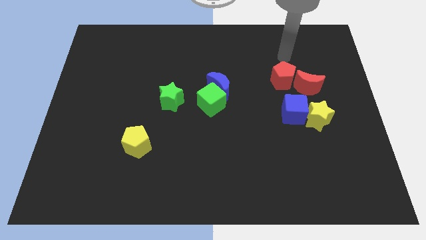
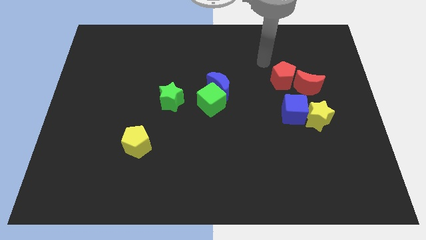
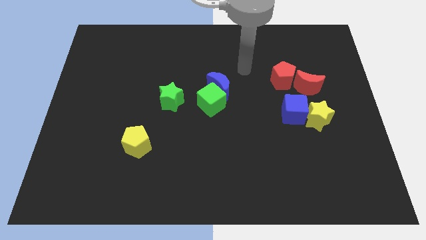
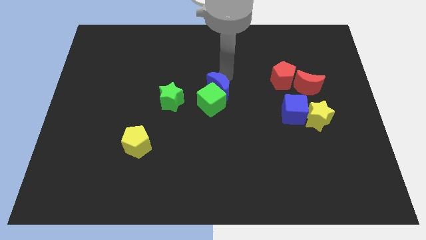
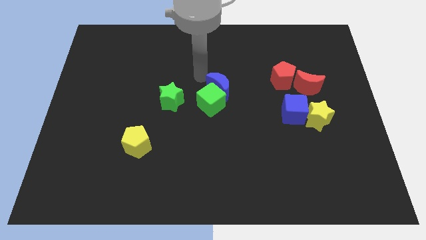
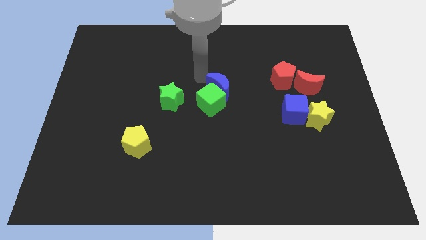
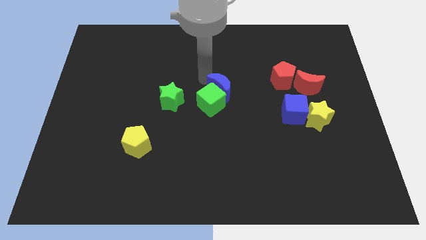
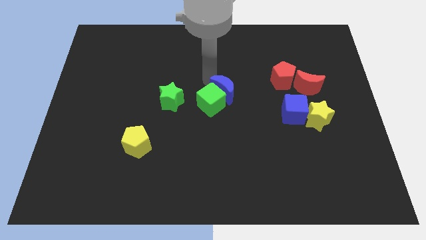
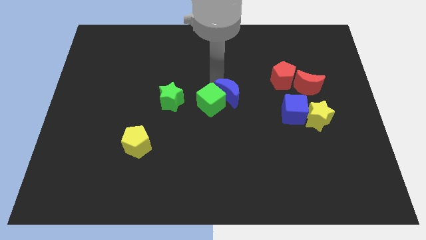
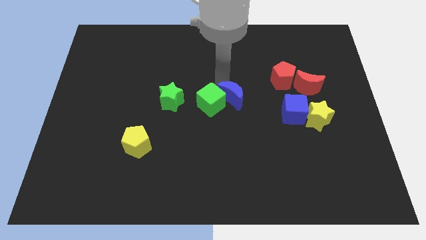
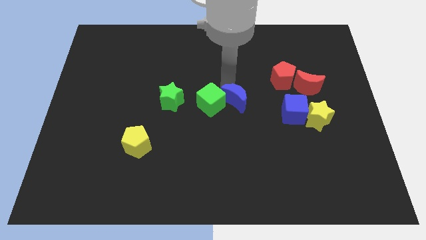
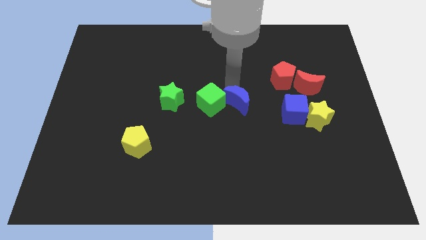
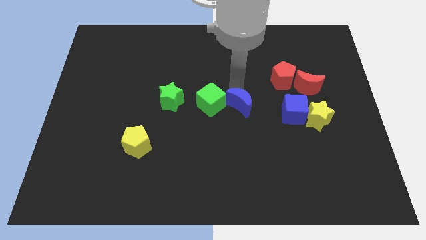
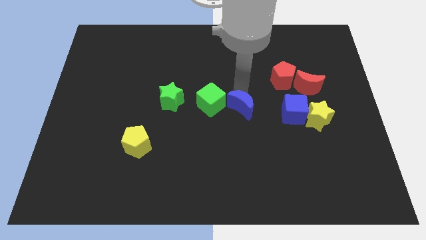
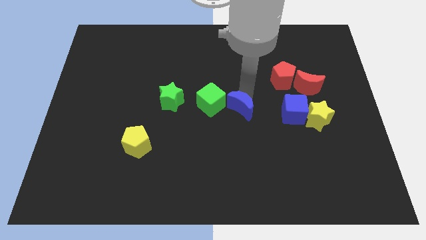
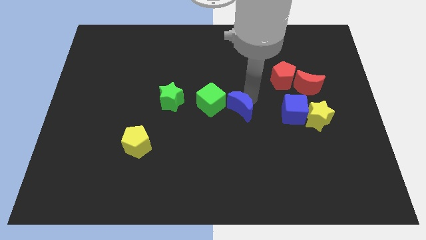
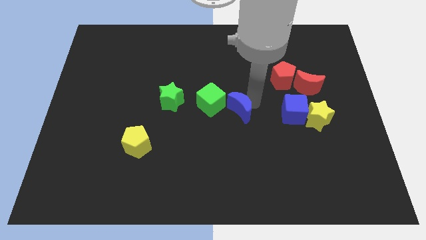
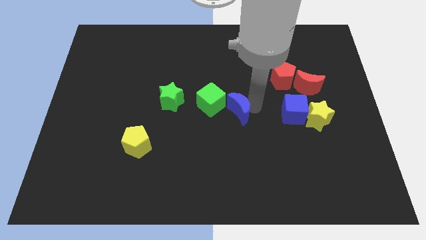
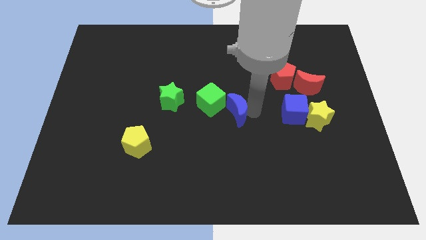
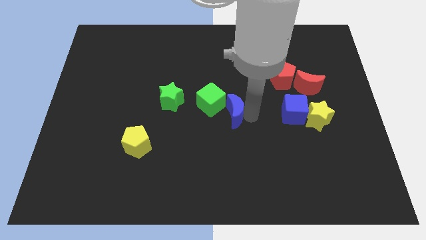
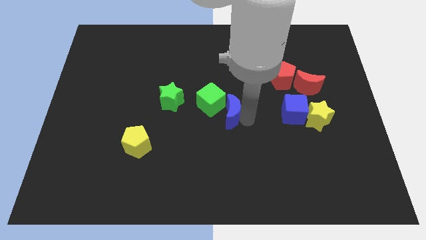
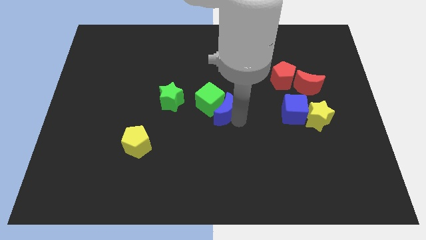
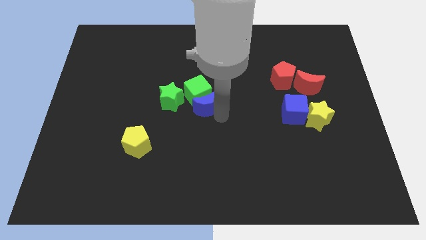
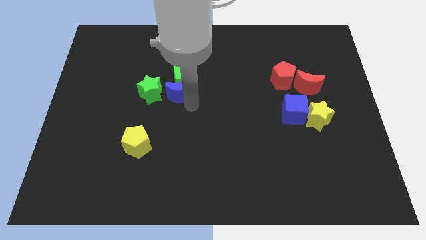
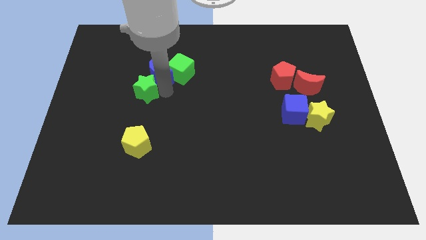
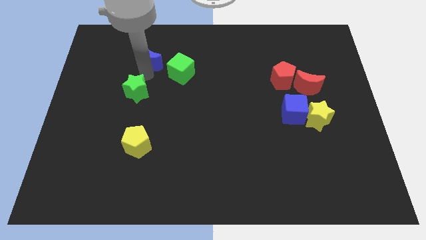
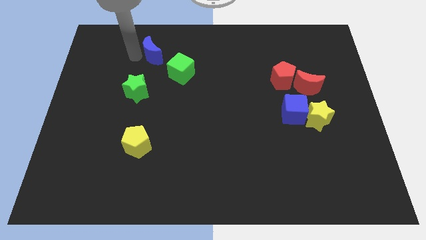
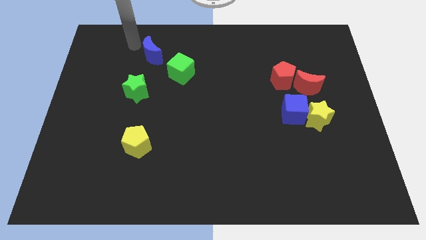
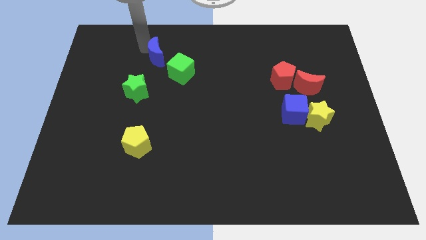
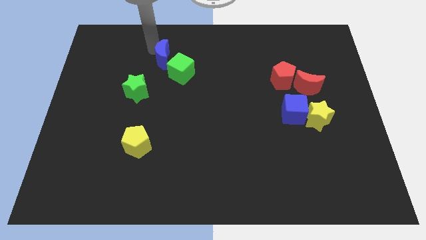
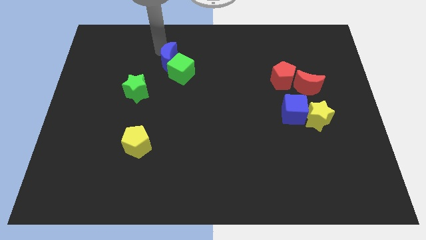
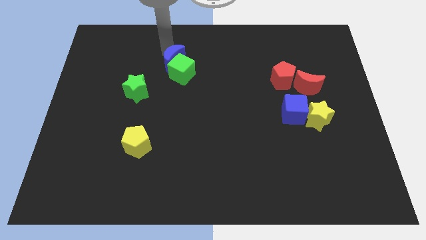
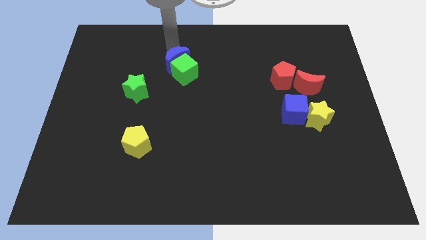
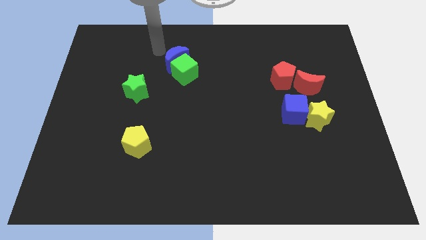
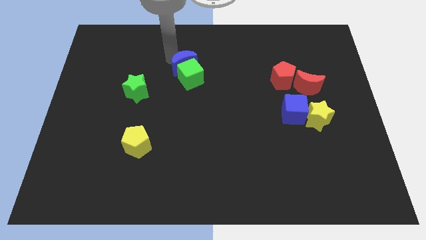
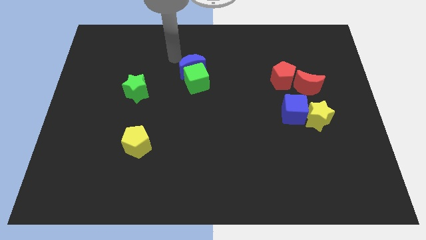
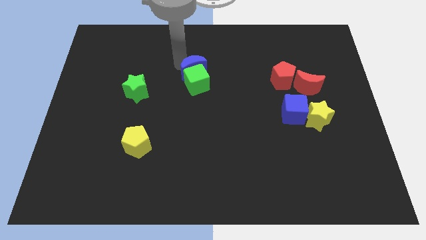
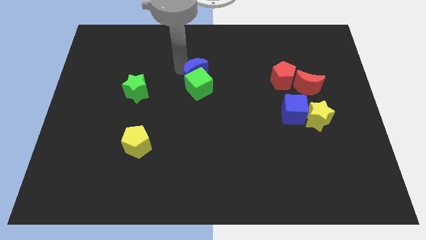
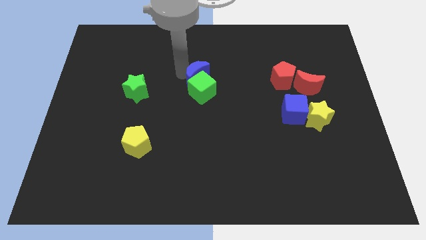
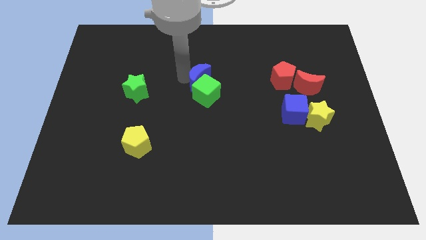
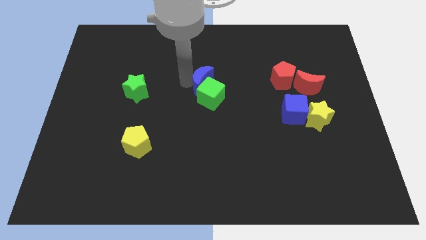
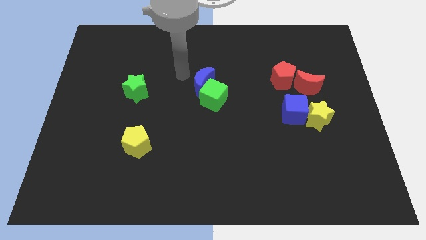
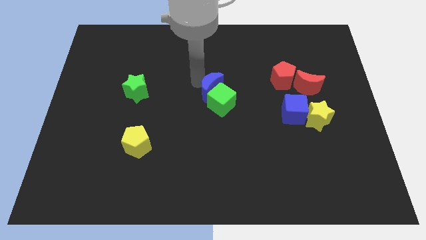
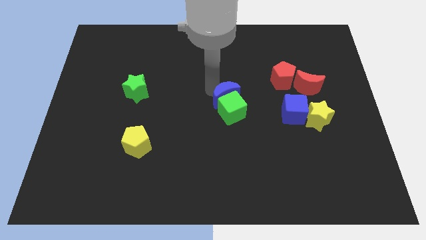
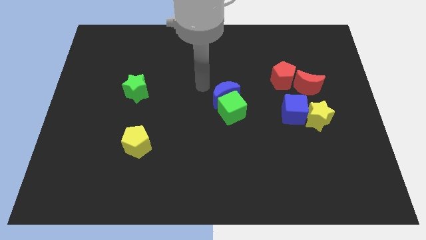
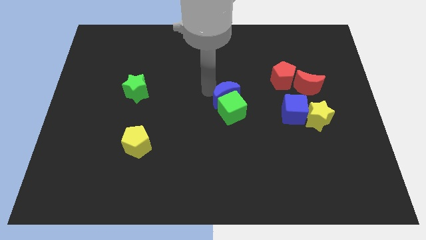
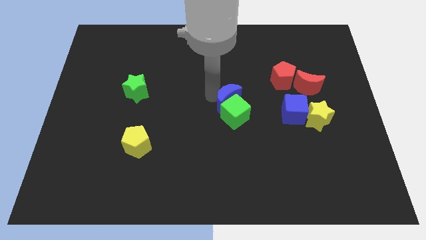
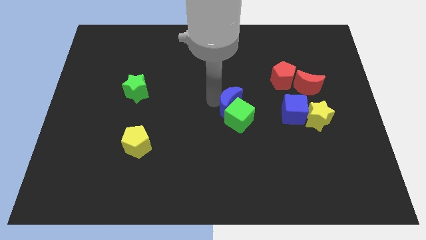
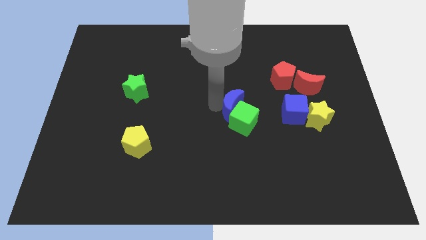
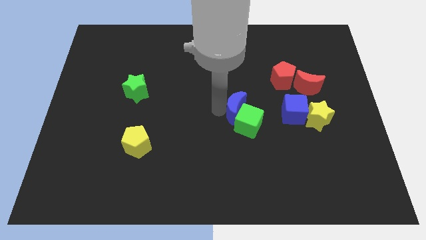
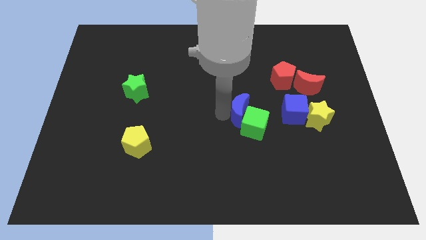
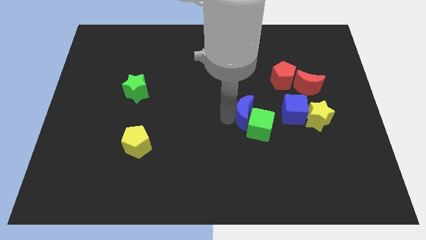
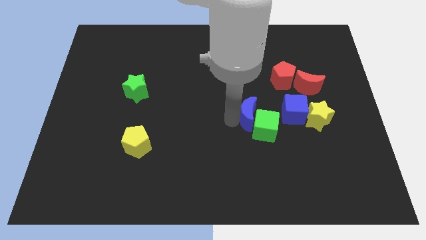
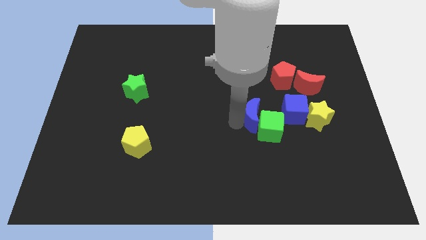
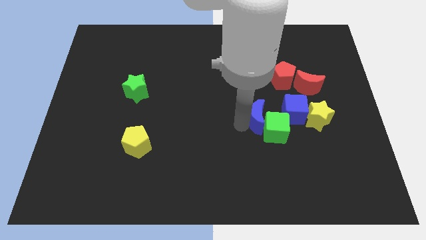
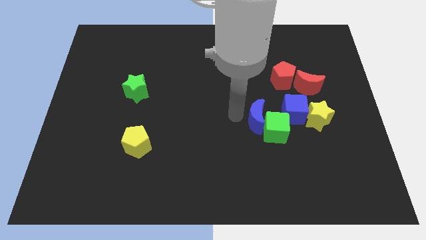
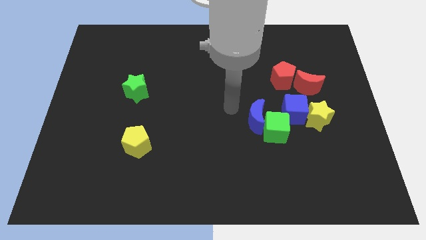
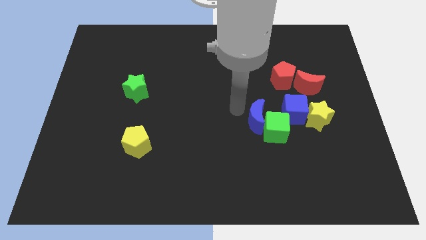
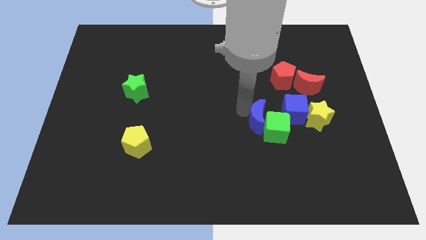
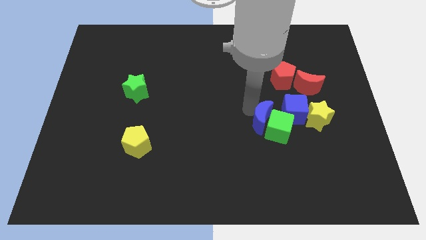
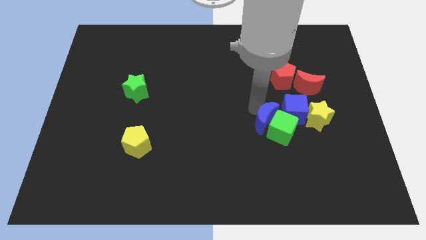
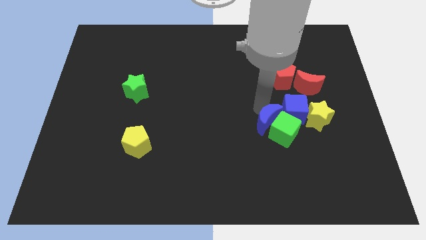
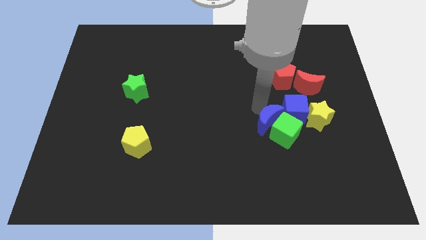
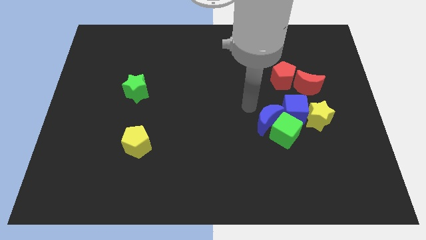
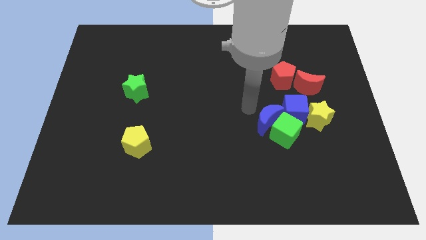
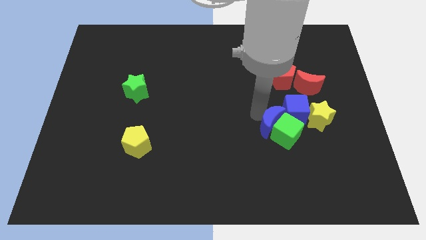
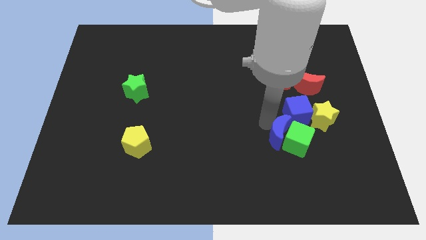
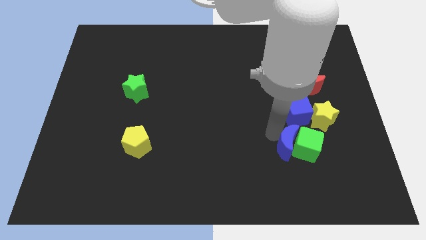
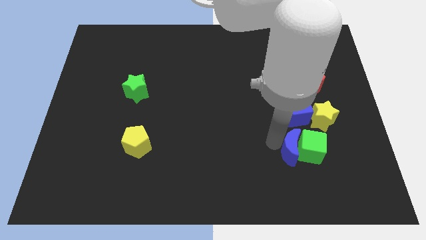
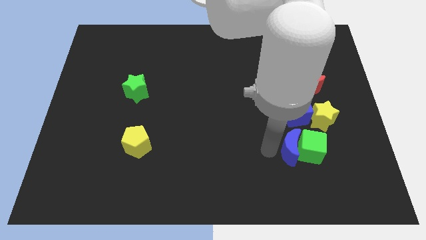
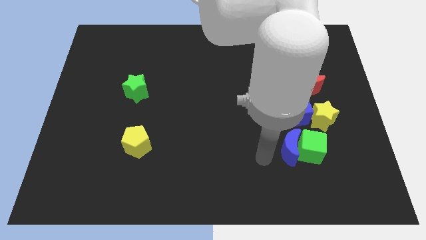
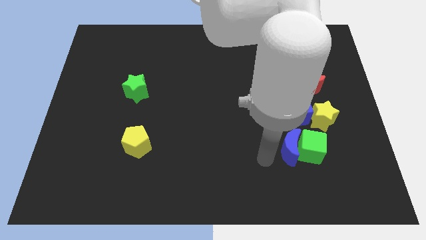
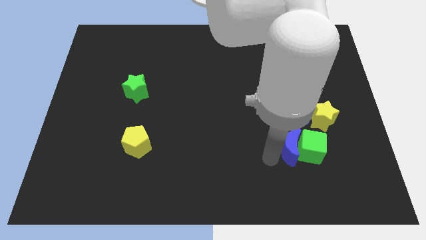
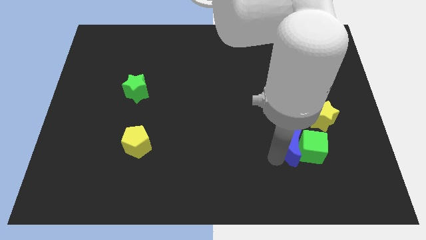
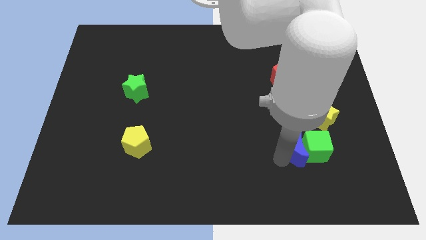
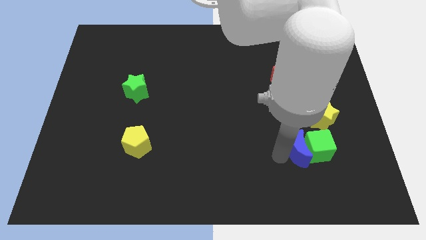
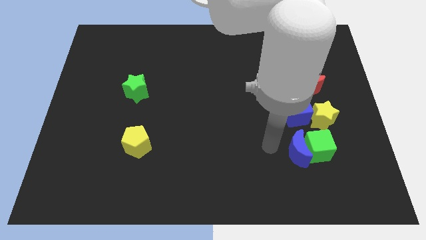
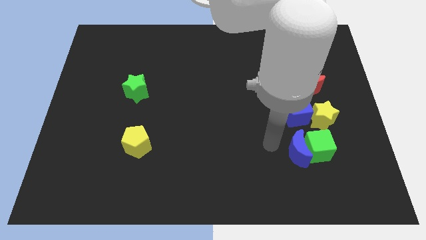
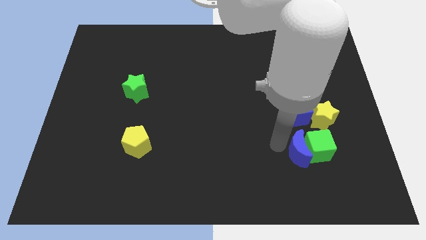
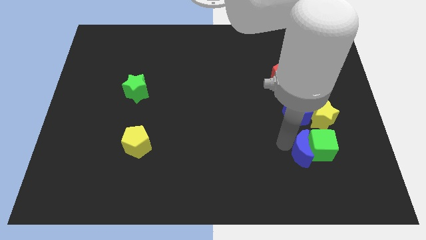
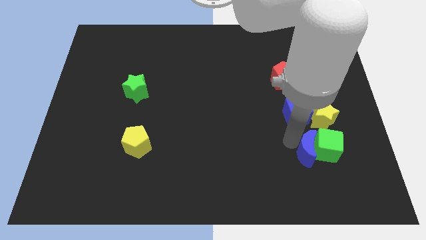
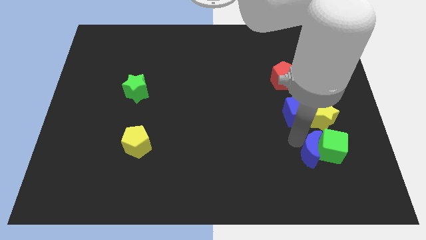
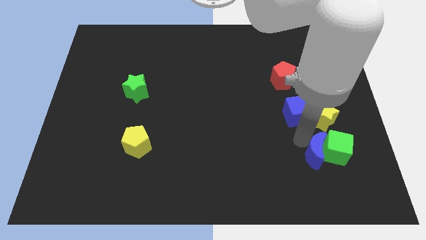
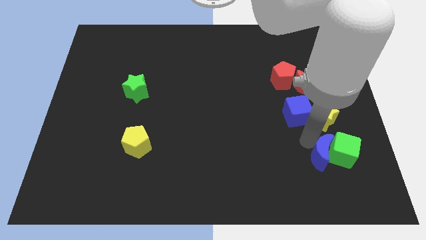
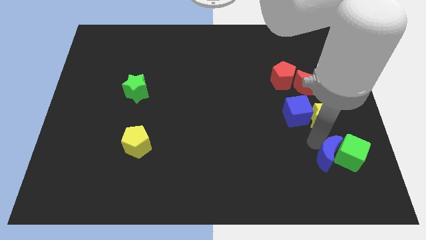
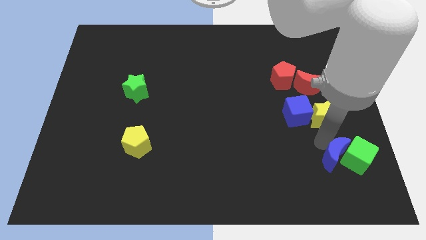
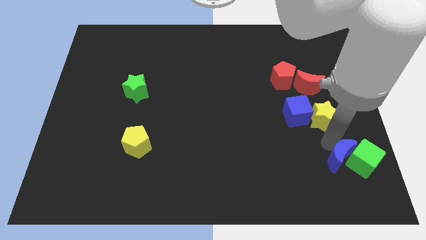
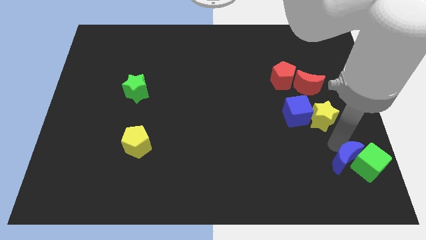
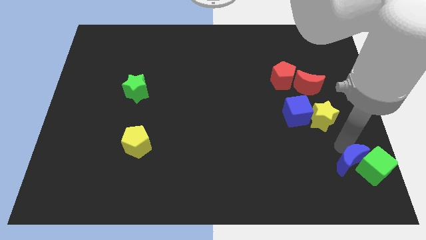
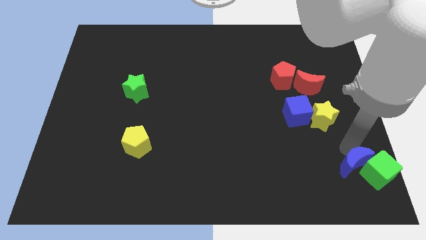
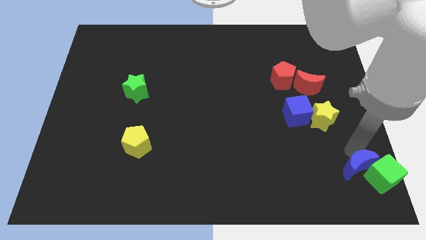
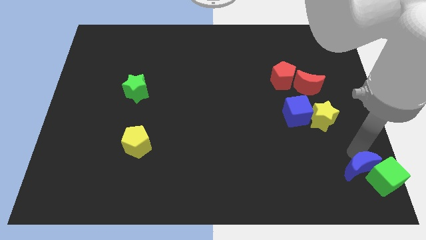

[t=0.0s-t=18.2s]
move the blue moon to the bottom right of the board
